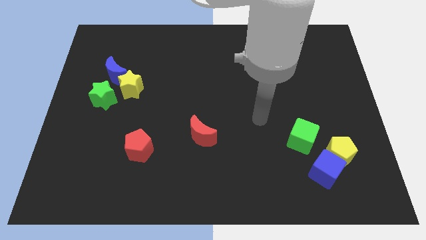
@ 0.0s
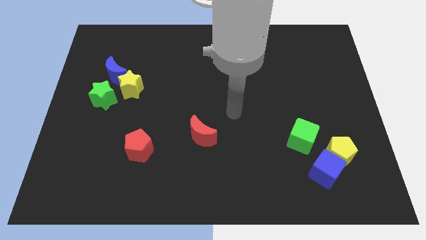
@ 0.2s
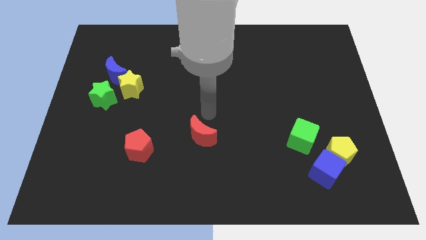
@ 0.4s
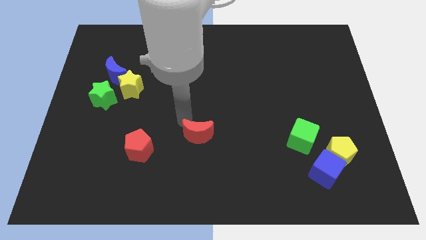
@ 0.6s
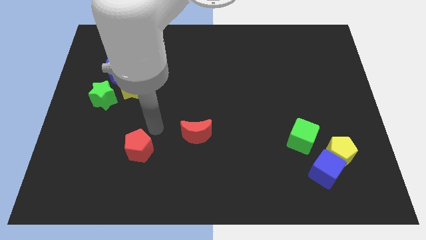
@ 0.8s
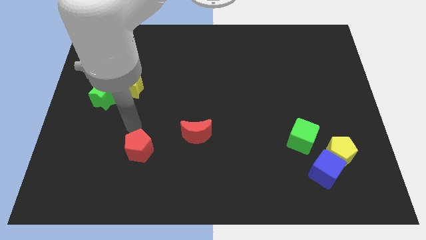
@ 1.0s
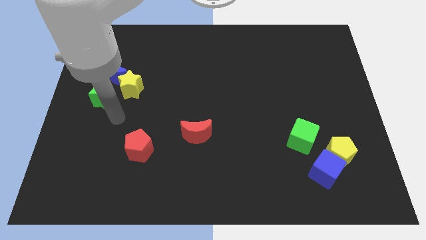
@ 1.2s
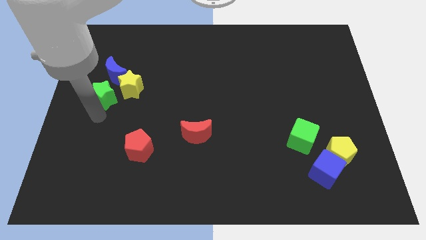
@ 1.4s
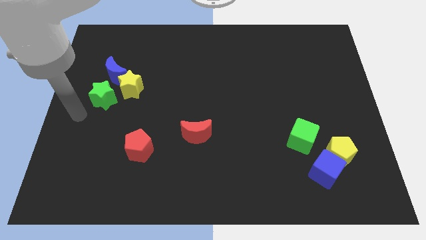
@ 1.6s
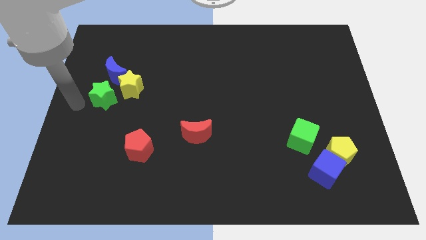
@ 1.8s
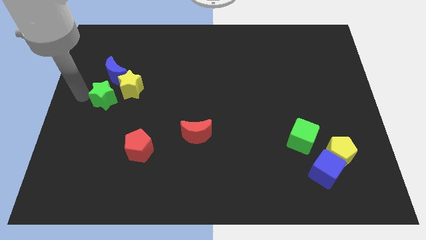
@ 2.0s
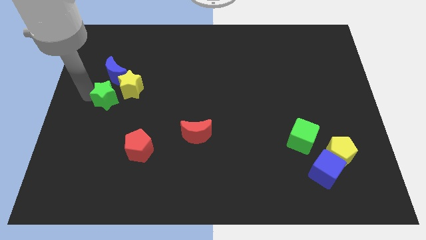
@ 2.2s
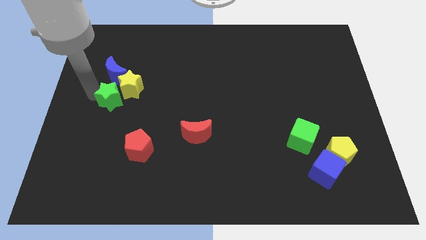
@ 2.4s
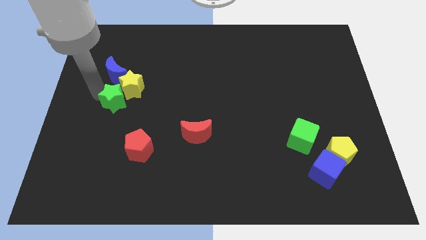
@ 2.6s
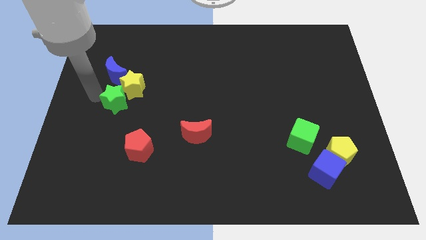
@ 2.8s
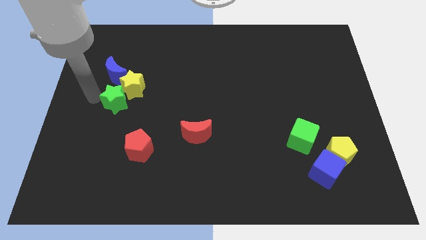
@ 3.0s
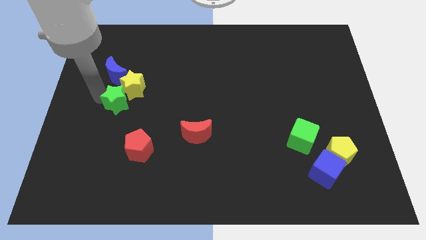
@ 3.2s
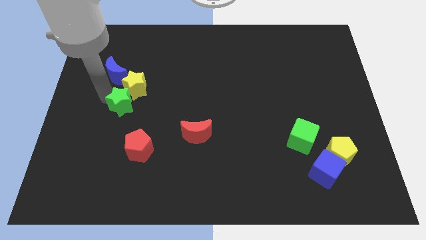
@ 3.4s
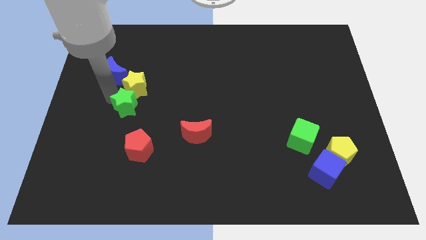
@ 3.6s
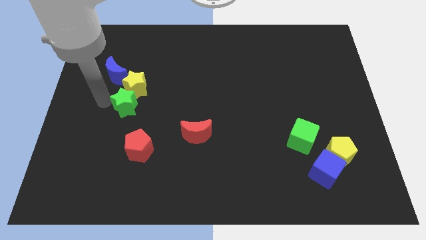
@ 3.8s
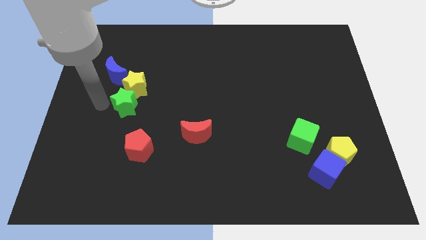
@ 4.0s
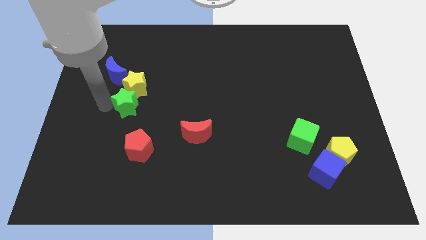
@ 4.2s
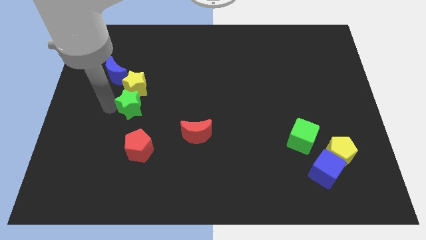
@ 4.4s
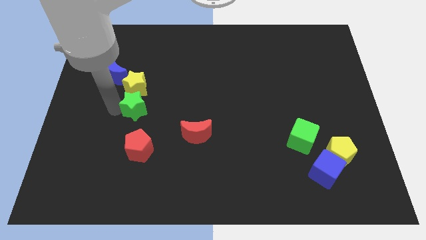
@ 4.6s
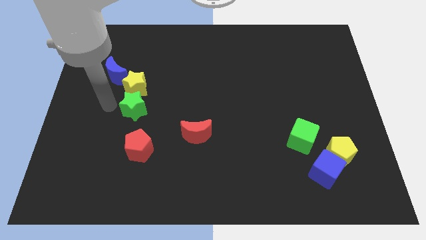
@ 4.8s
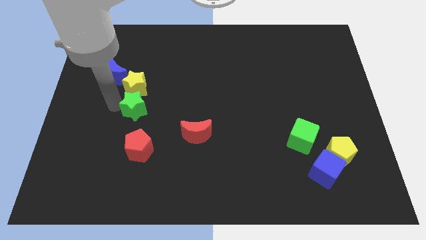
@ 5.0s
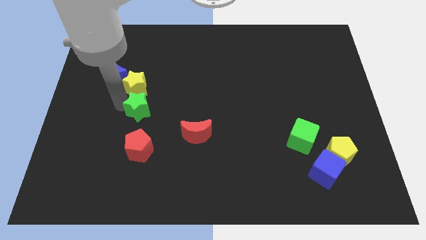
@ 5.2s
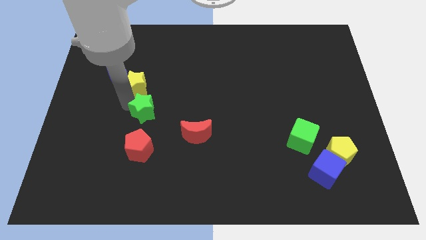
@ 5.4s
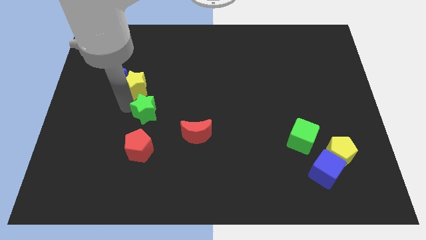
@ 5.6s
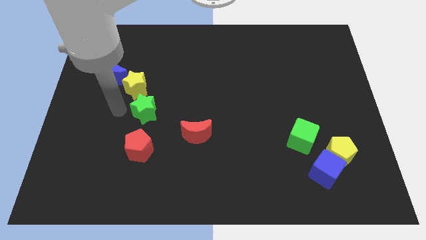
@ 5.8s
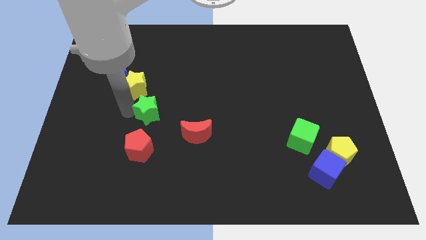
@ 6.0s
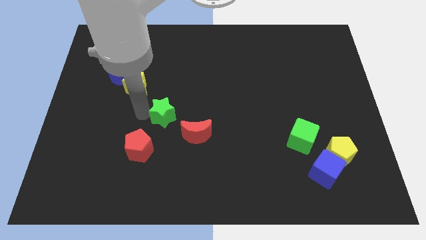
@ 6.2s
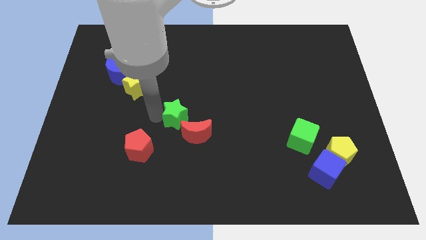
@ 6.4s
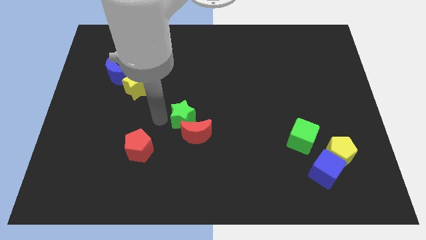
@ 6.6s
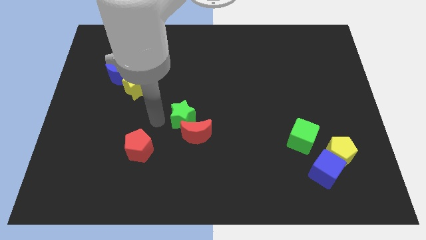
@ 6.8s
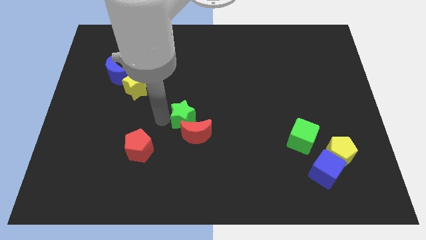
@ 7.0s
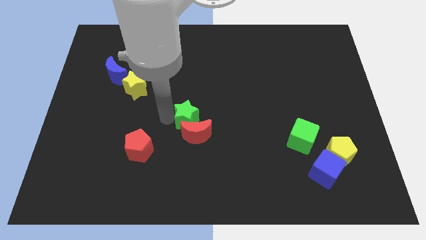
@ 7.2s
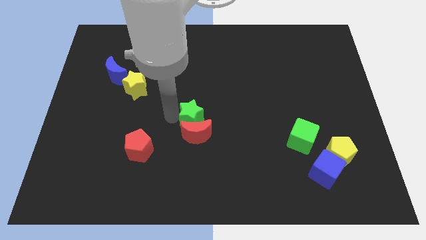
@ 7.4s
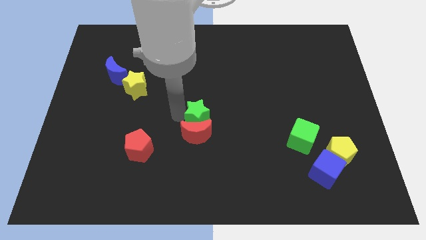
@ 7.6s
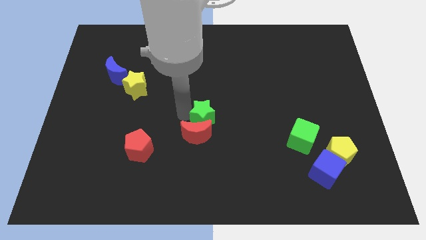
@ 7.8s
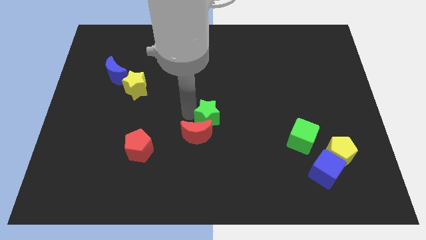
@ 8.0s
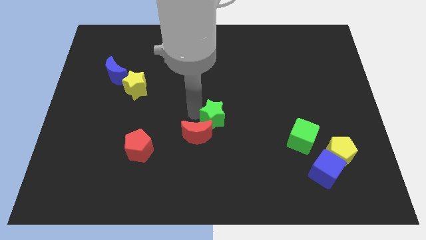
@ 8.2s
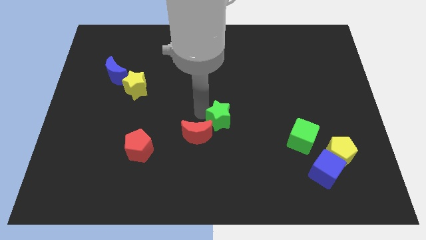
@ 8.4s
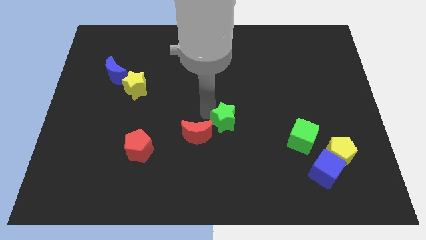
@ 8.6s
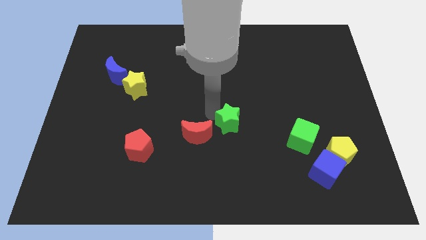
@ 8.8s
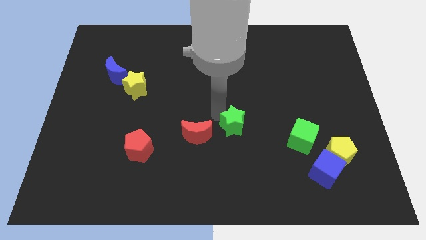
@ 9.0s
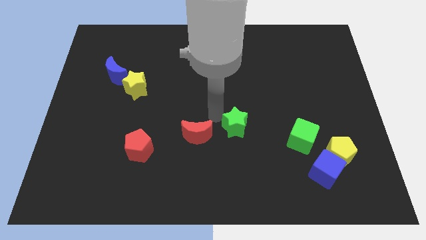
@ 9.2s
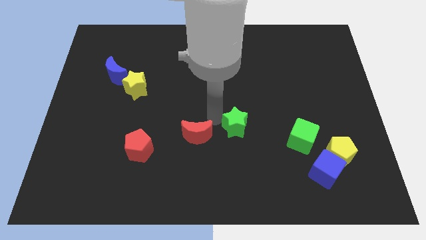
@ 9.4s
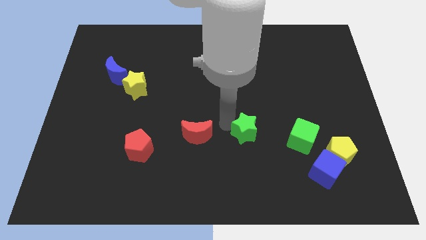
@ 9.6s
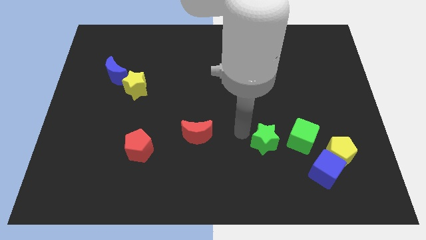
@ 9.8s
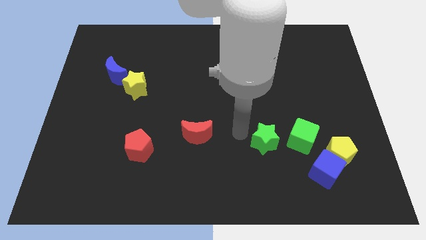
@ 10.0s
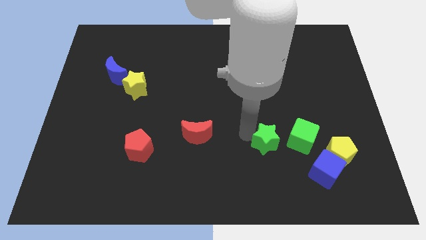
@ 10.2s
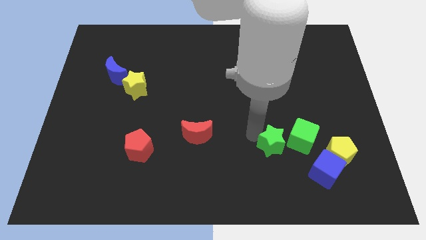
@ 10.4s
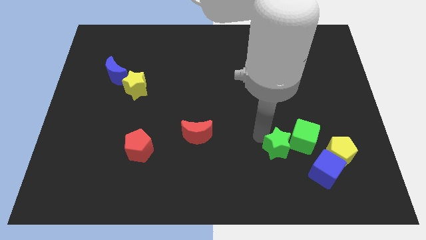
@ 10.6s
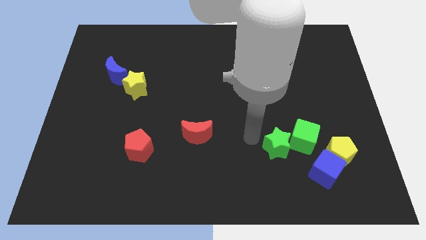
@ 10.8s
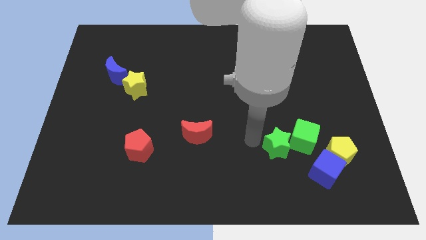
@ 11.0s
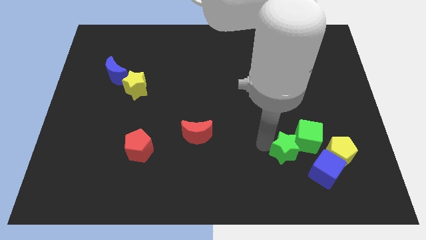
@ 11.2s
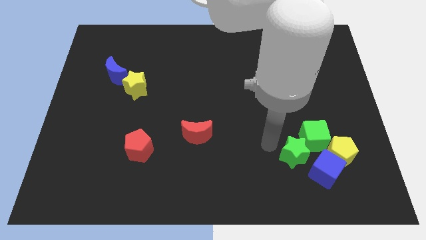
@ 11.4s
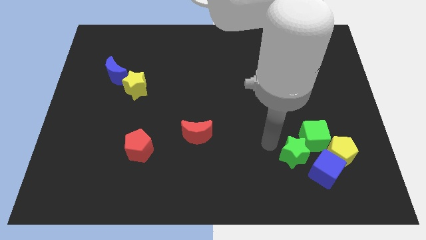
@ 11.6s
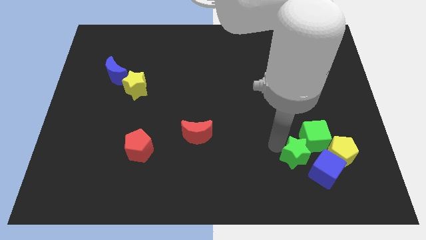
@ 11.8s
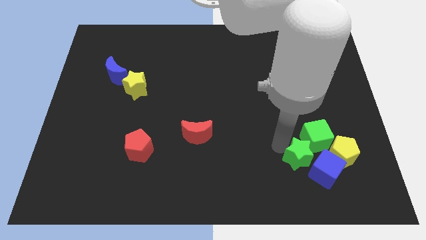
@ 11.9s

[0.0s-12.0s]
push the green star close to the blue cube
